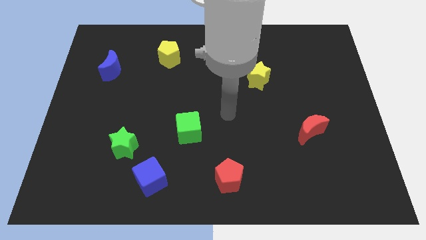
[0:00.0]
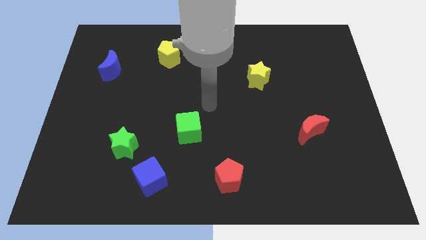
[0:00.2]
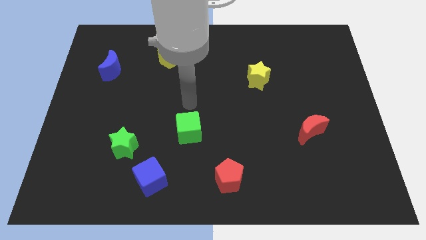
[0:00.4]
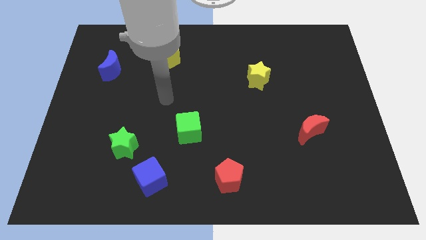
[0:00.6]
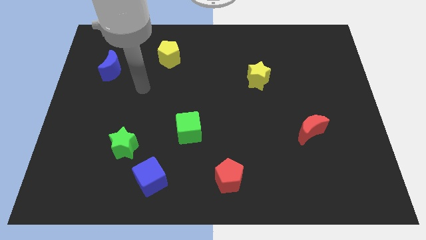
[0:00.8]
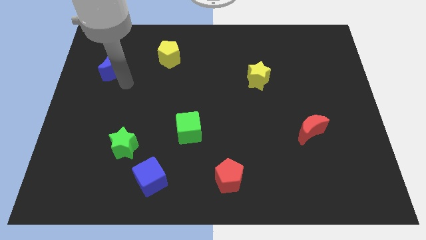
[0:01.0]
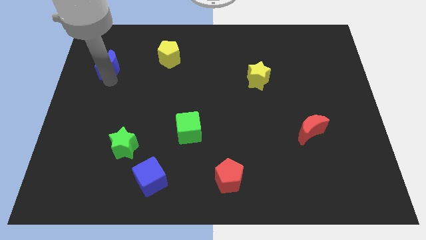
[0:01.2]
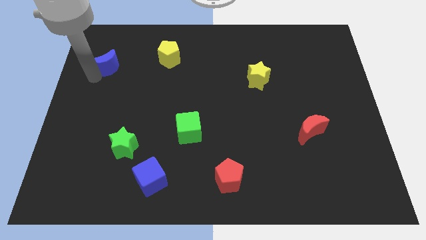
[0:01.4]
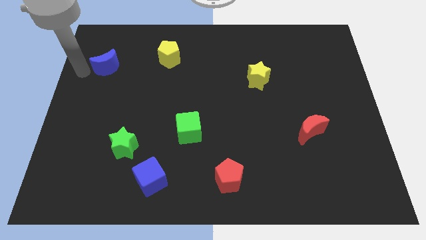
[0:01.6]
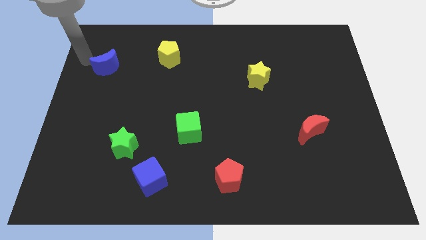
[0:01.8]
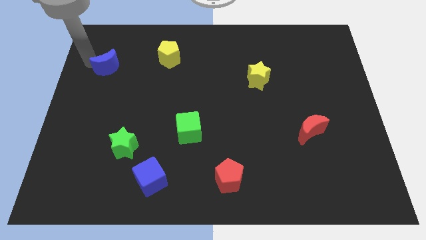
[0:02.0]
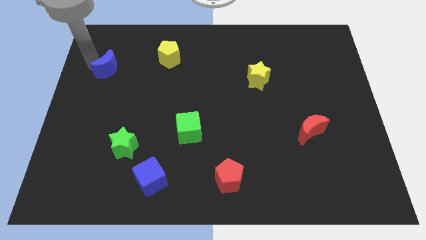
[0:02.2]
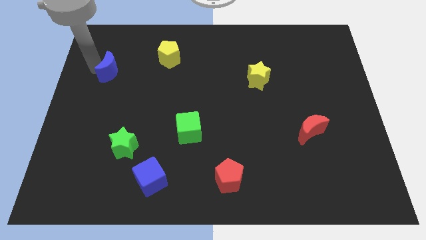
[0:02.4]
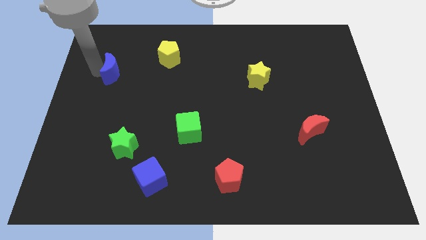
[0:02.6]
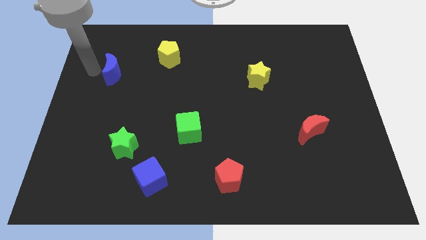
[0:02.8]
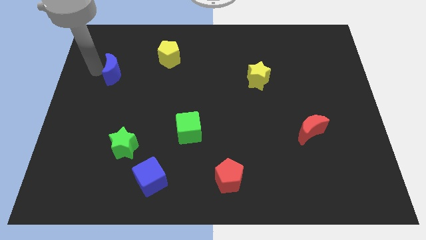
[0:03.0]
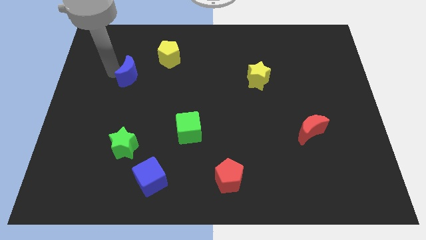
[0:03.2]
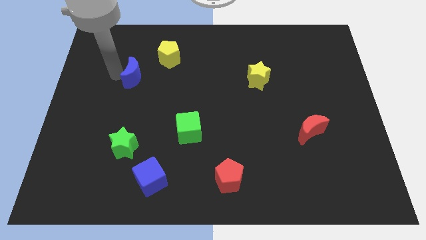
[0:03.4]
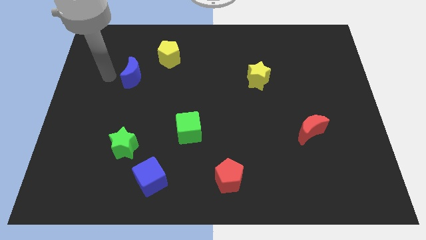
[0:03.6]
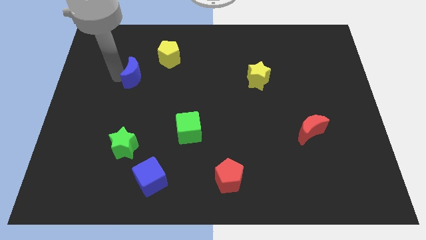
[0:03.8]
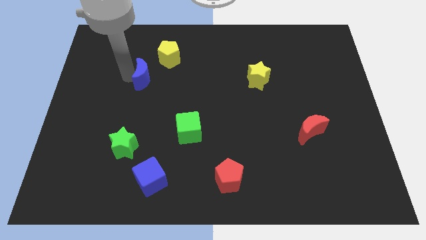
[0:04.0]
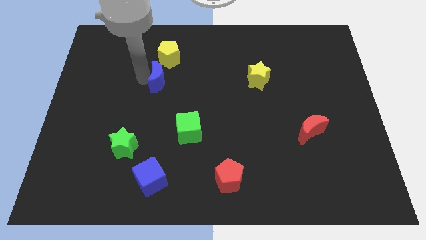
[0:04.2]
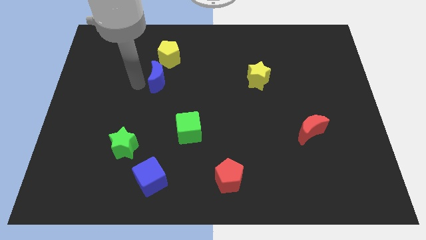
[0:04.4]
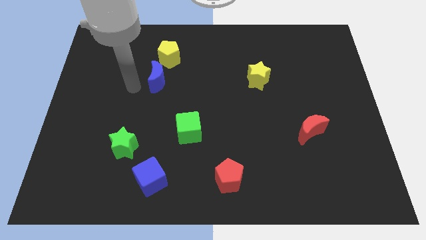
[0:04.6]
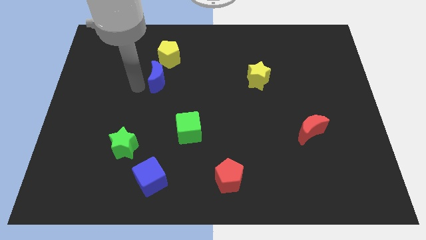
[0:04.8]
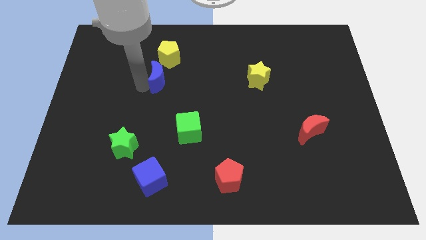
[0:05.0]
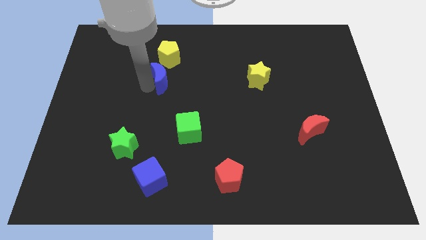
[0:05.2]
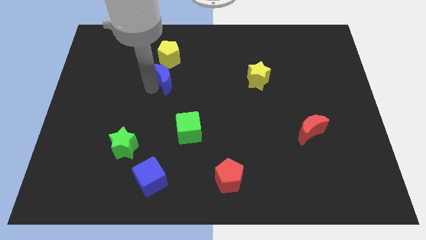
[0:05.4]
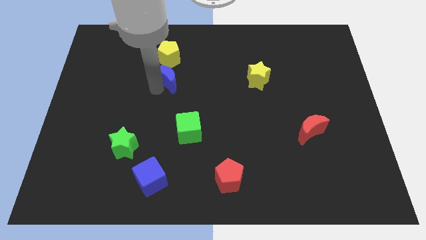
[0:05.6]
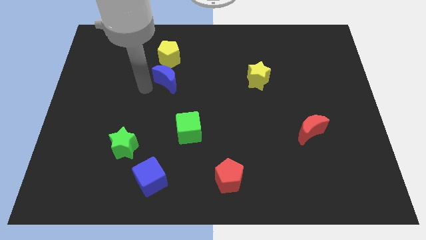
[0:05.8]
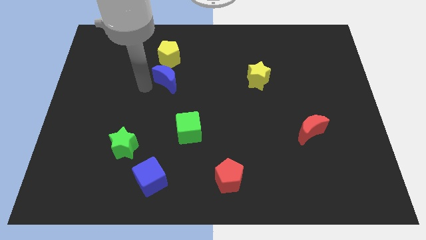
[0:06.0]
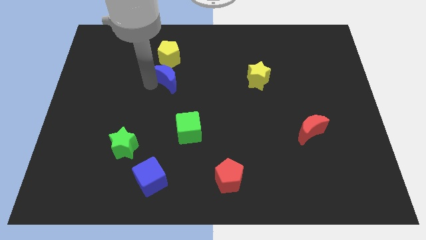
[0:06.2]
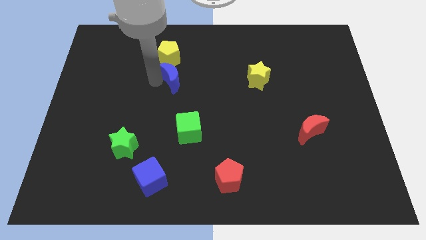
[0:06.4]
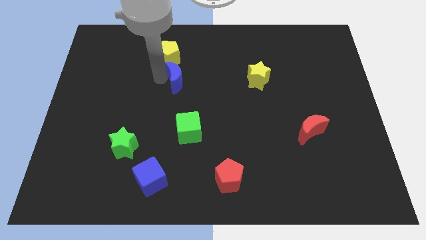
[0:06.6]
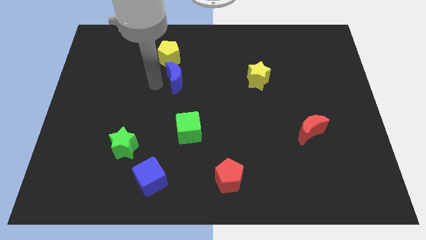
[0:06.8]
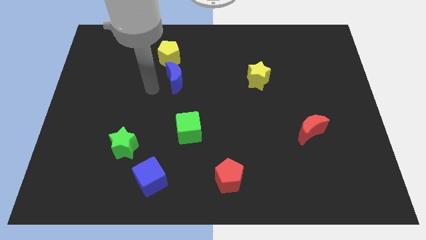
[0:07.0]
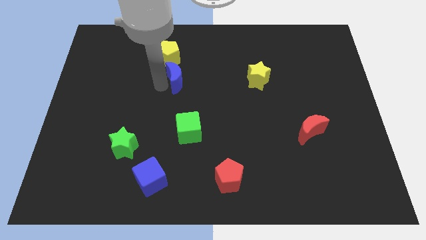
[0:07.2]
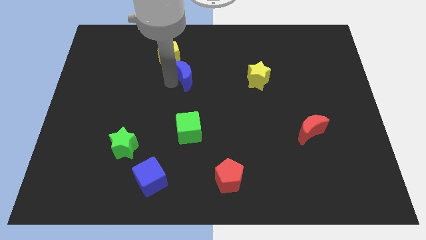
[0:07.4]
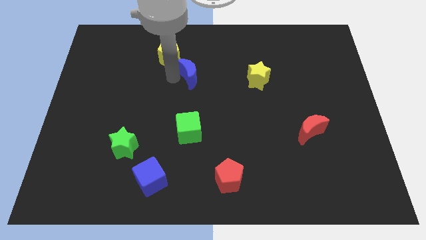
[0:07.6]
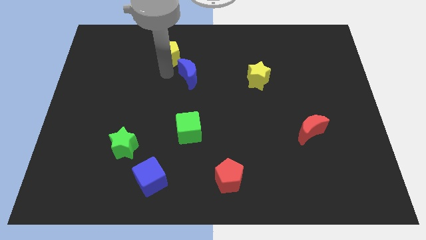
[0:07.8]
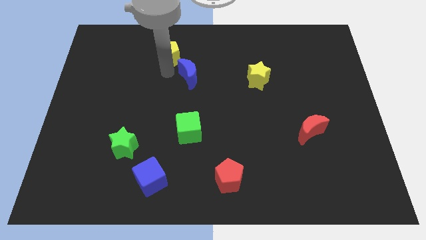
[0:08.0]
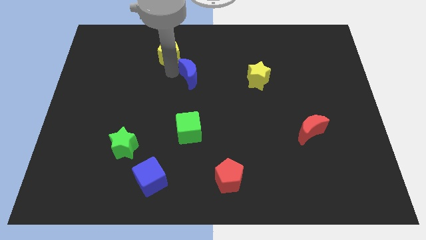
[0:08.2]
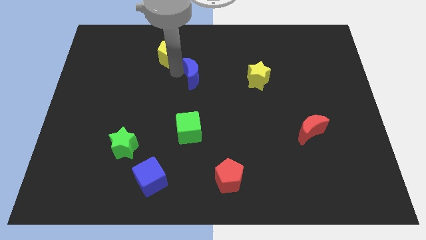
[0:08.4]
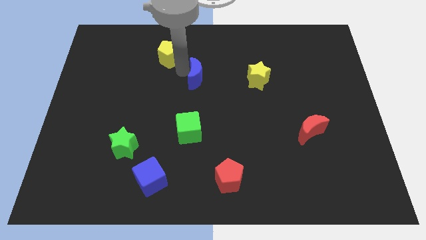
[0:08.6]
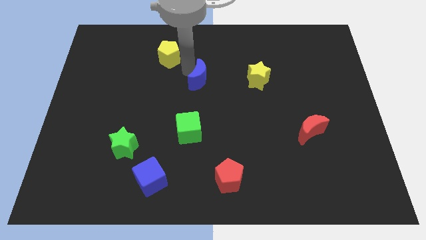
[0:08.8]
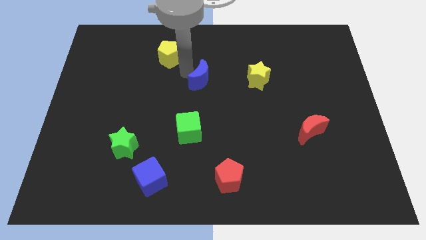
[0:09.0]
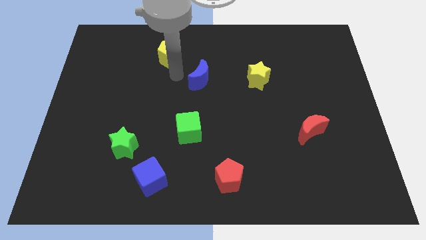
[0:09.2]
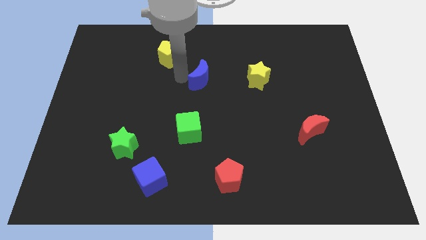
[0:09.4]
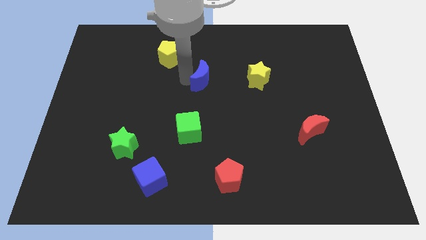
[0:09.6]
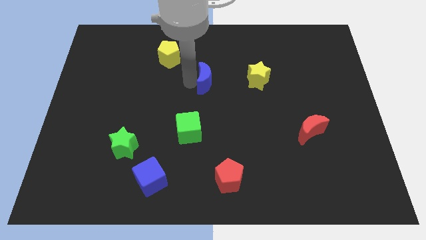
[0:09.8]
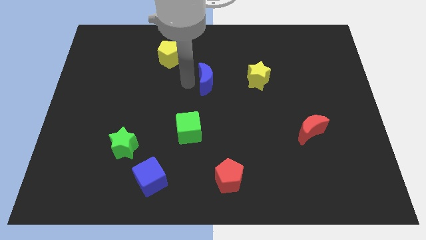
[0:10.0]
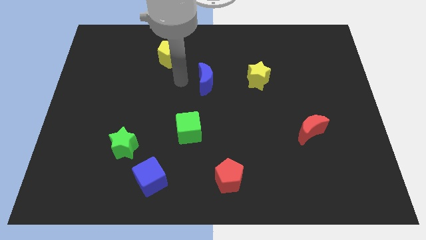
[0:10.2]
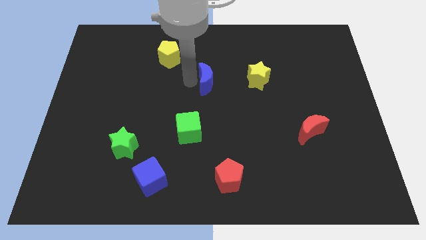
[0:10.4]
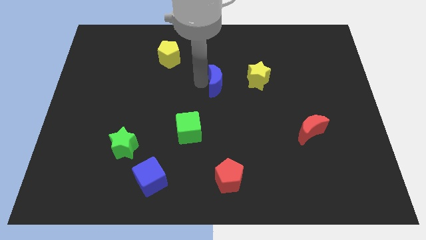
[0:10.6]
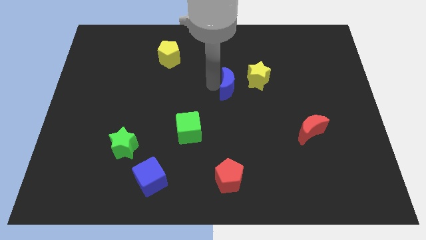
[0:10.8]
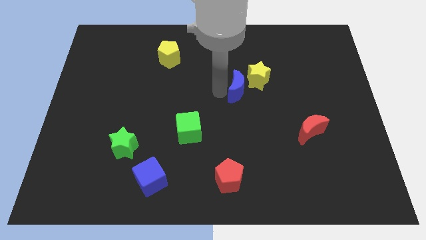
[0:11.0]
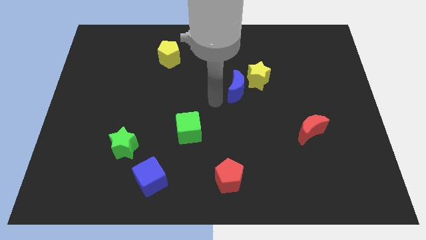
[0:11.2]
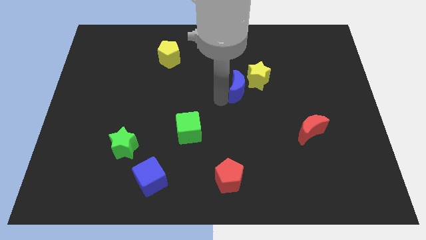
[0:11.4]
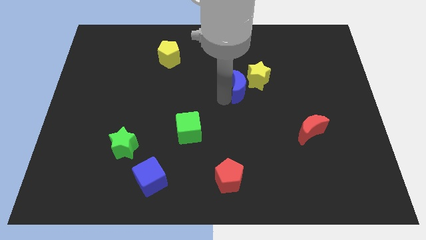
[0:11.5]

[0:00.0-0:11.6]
move the blue moon close to the yellow star

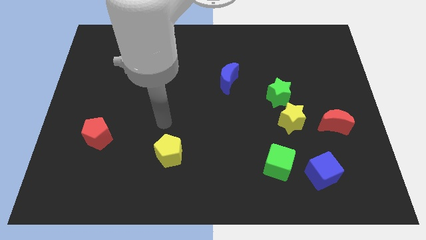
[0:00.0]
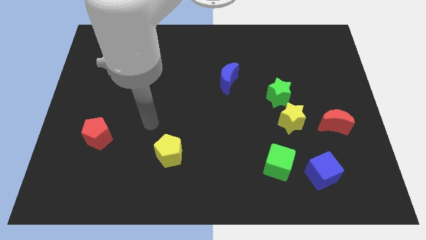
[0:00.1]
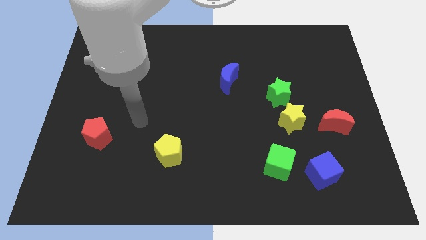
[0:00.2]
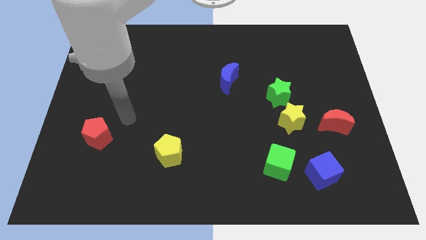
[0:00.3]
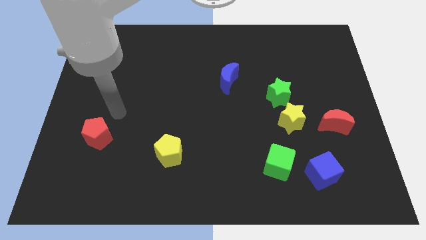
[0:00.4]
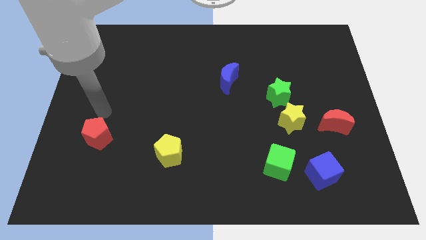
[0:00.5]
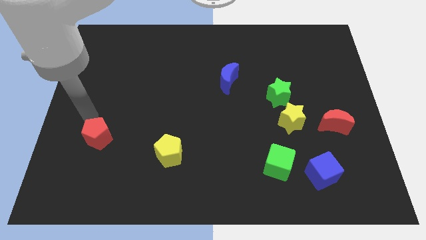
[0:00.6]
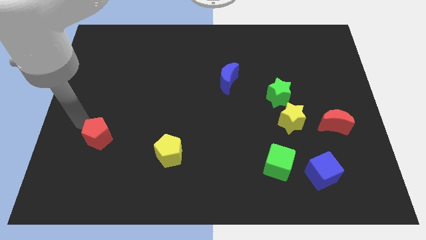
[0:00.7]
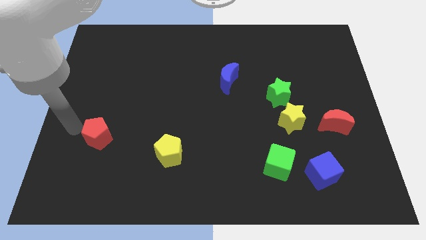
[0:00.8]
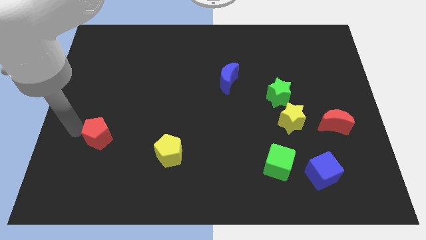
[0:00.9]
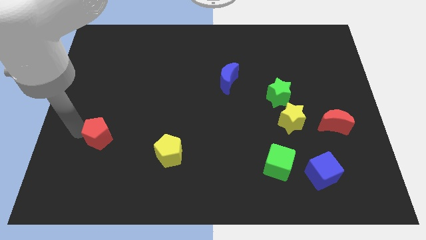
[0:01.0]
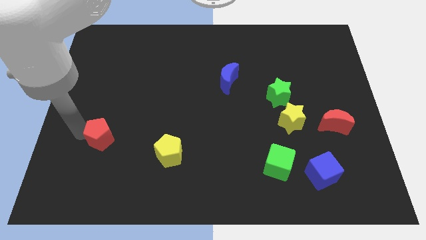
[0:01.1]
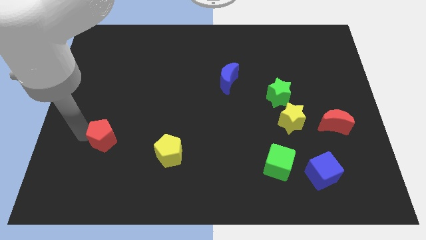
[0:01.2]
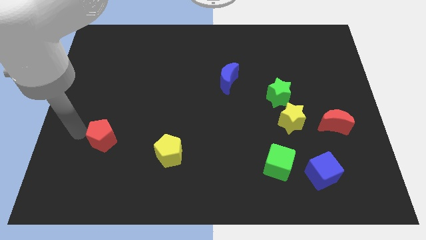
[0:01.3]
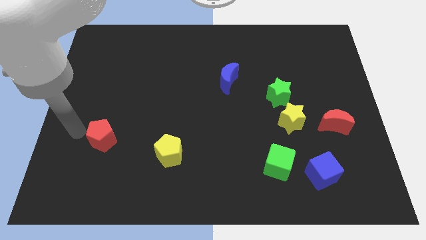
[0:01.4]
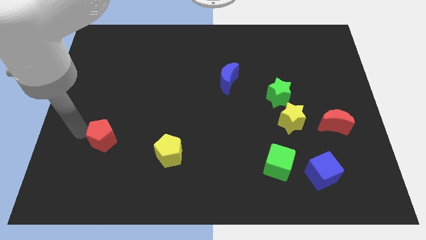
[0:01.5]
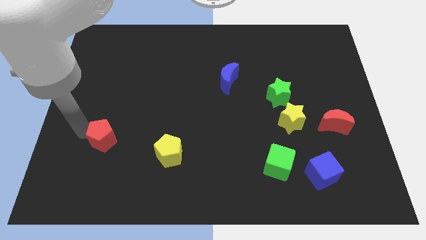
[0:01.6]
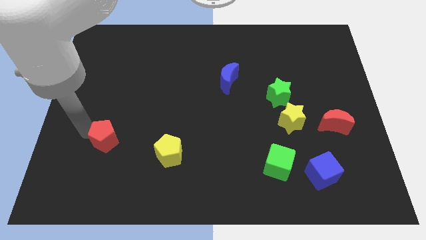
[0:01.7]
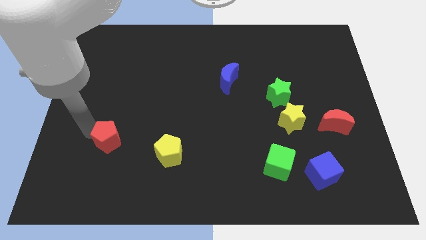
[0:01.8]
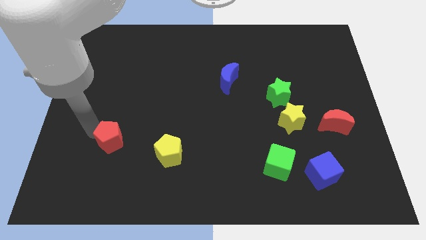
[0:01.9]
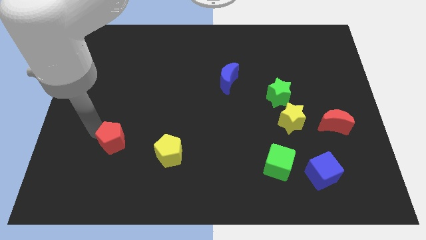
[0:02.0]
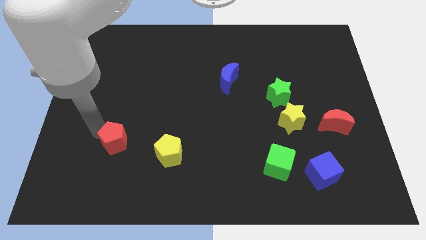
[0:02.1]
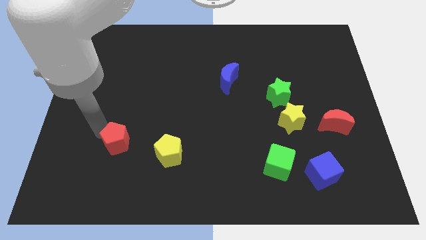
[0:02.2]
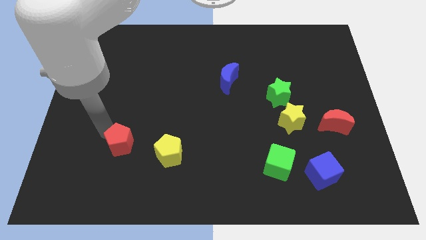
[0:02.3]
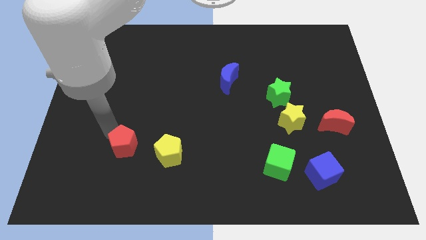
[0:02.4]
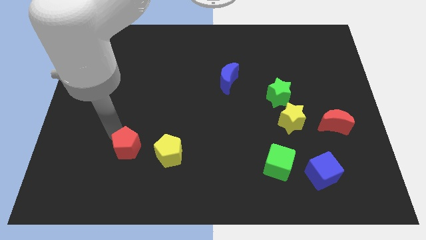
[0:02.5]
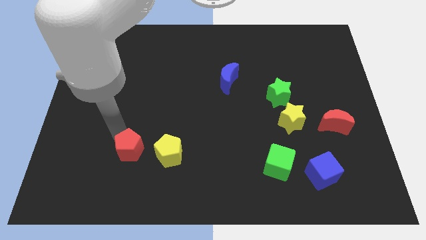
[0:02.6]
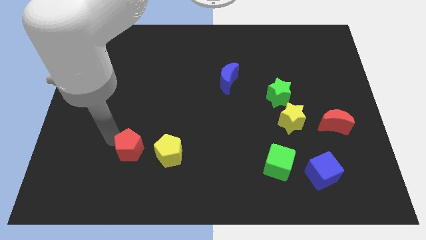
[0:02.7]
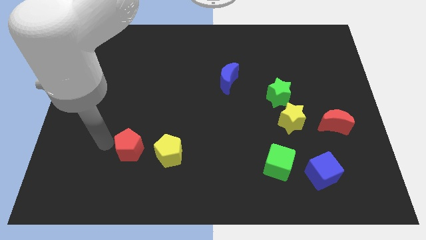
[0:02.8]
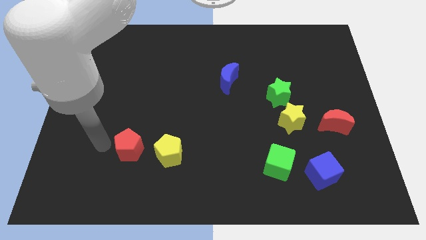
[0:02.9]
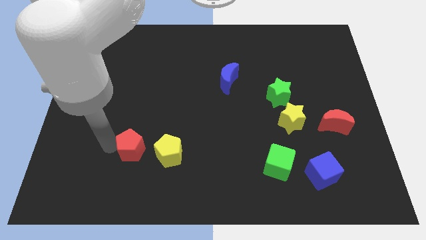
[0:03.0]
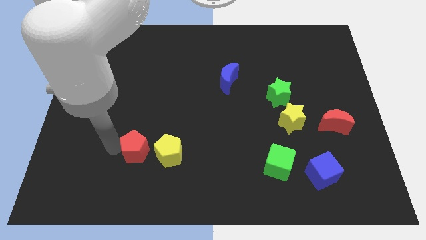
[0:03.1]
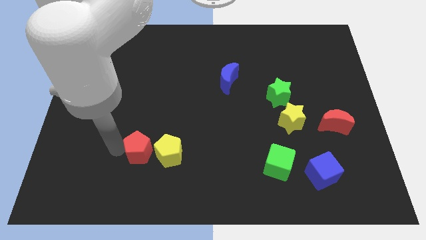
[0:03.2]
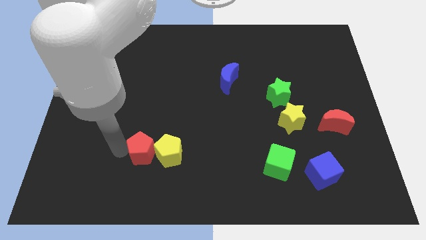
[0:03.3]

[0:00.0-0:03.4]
slide the red pentagon next to the yellow pentagon
